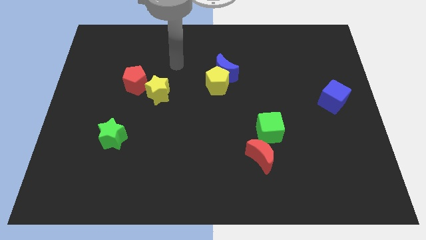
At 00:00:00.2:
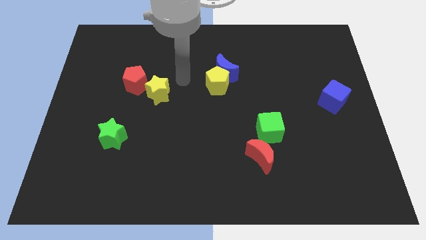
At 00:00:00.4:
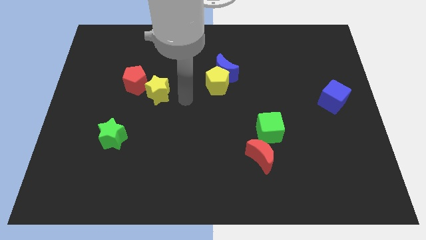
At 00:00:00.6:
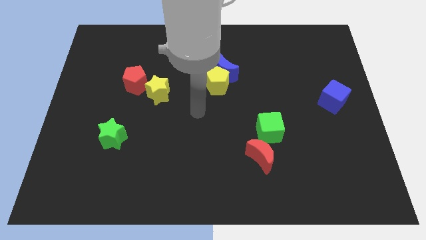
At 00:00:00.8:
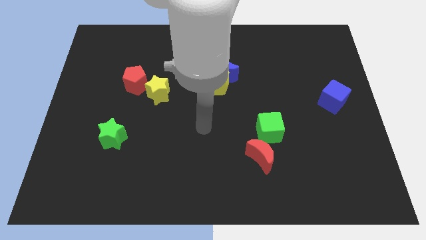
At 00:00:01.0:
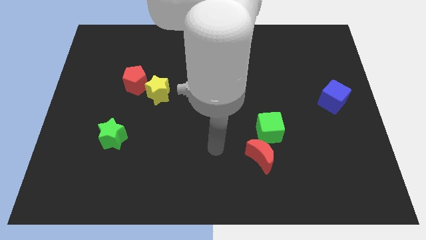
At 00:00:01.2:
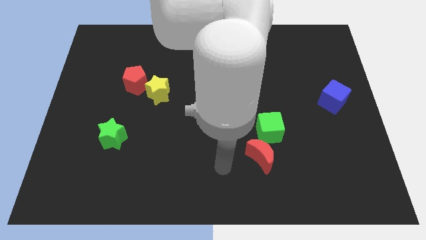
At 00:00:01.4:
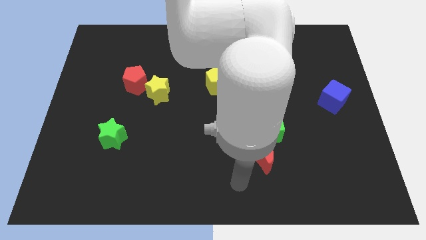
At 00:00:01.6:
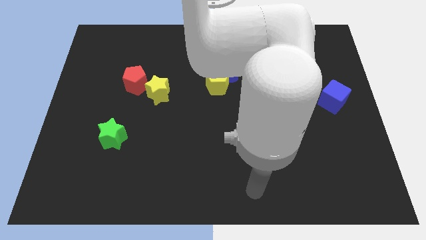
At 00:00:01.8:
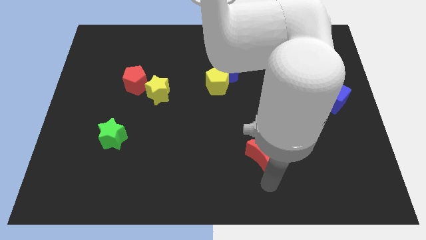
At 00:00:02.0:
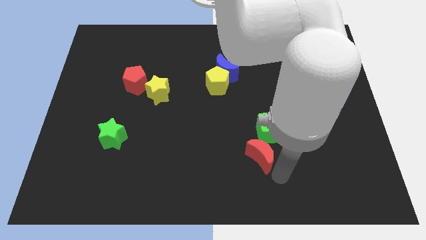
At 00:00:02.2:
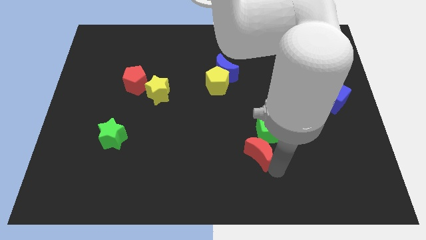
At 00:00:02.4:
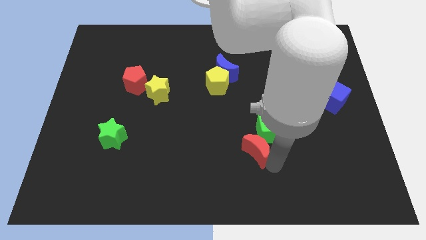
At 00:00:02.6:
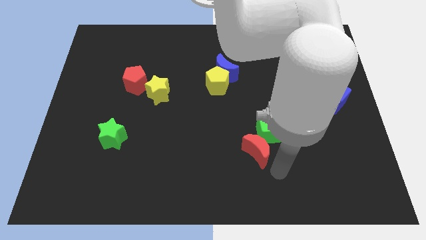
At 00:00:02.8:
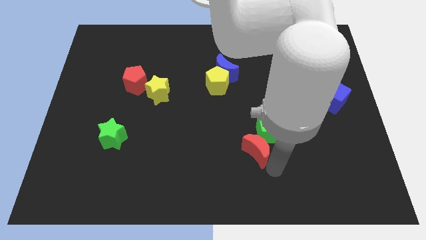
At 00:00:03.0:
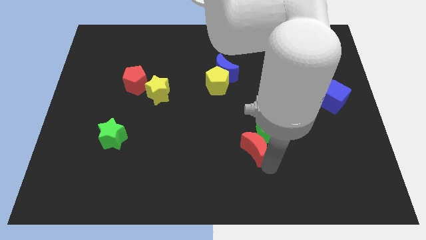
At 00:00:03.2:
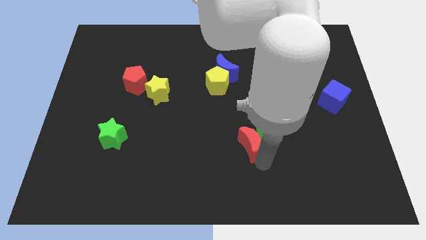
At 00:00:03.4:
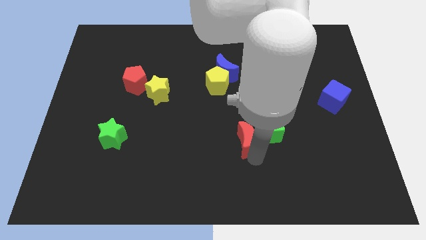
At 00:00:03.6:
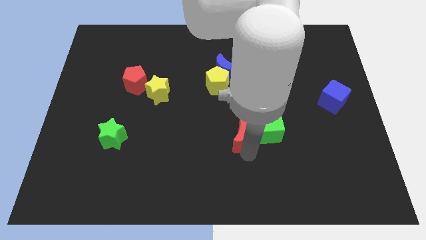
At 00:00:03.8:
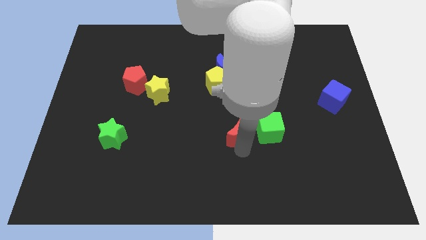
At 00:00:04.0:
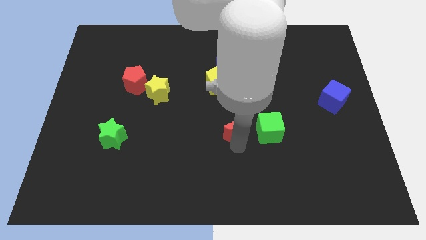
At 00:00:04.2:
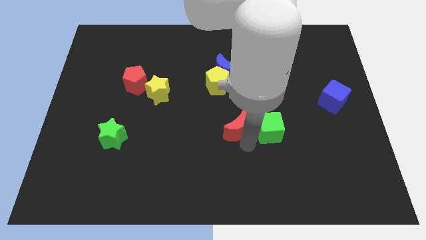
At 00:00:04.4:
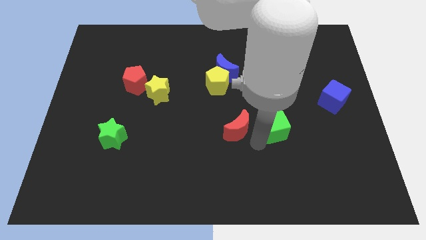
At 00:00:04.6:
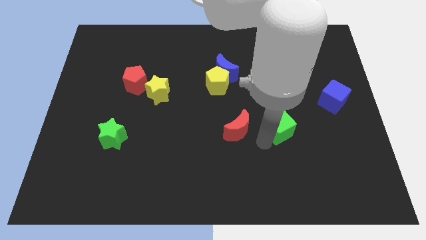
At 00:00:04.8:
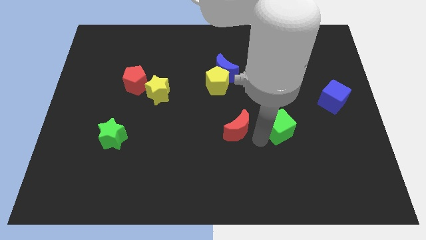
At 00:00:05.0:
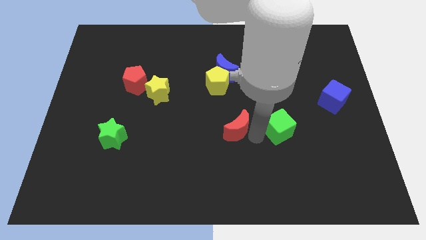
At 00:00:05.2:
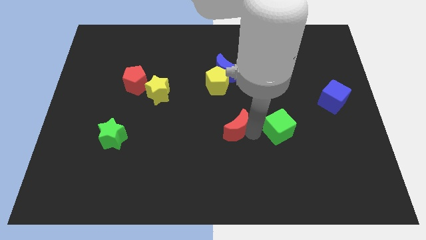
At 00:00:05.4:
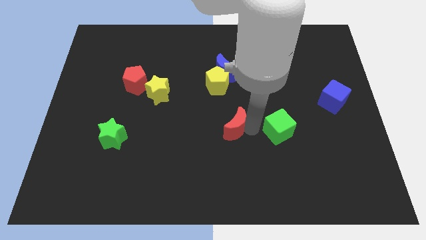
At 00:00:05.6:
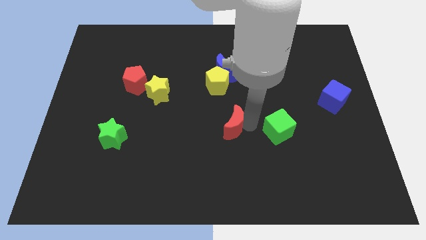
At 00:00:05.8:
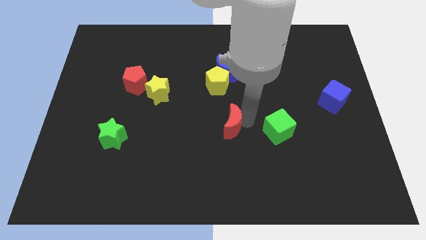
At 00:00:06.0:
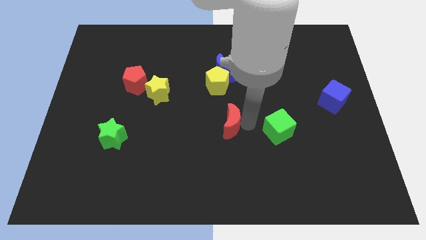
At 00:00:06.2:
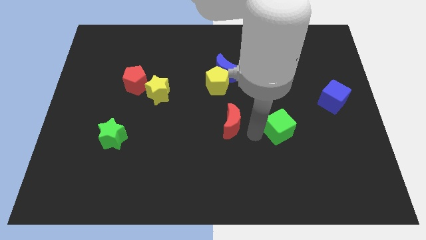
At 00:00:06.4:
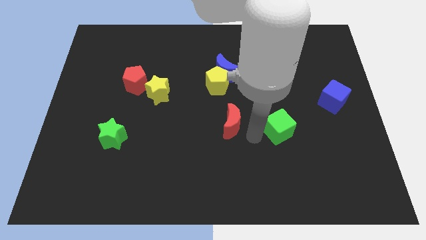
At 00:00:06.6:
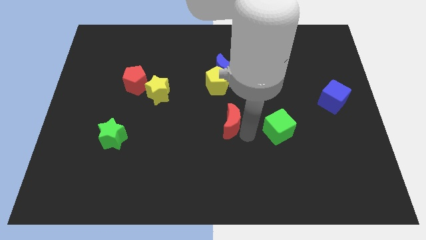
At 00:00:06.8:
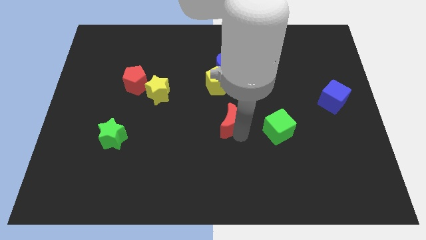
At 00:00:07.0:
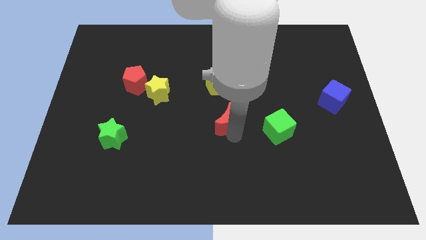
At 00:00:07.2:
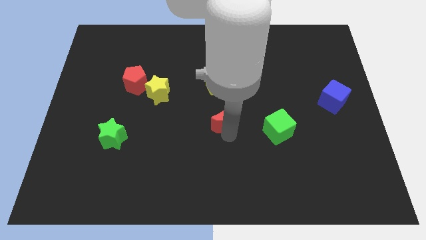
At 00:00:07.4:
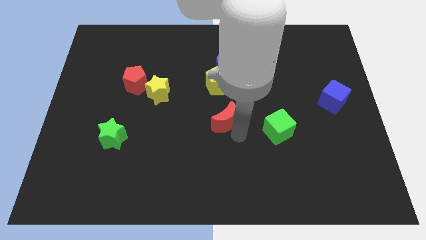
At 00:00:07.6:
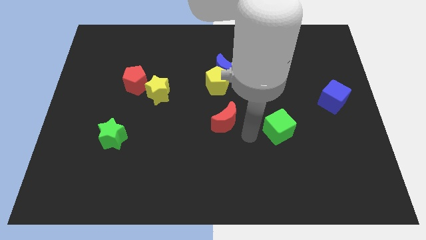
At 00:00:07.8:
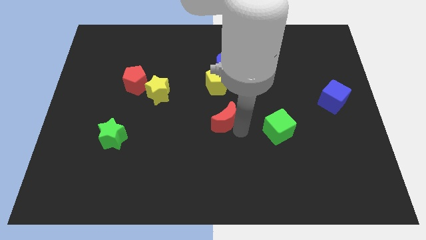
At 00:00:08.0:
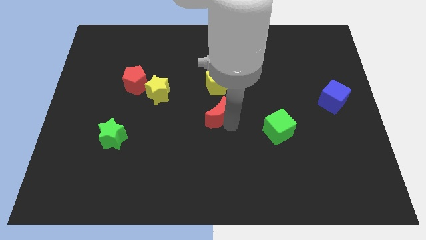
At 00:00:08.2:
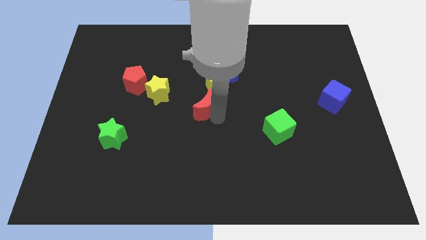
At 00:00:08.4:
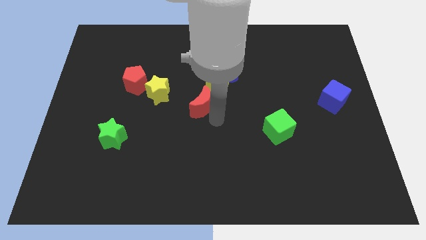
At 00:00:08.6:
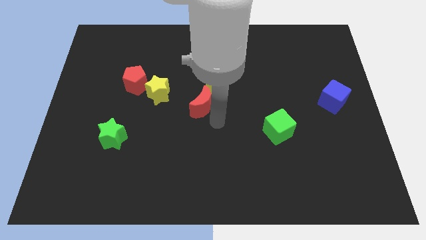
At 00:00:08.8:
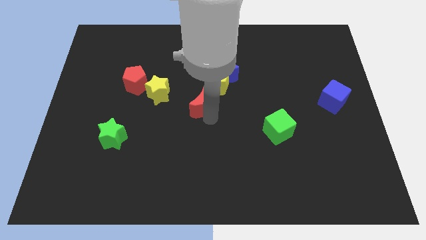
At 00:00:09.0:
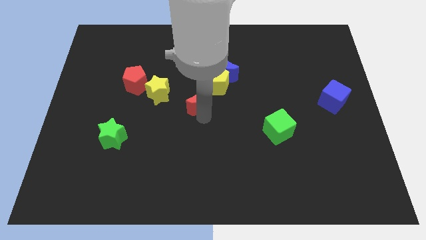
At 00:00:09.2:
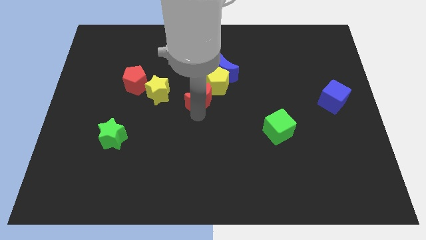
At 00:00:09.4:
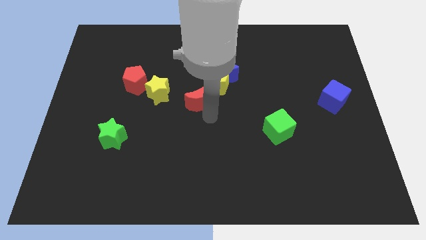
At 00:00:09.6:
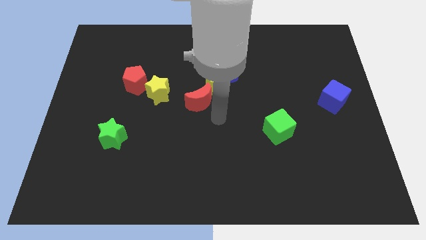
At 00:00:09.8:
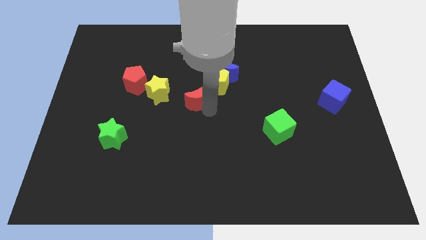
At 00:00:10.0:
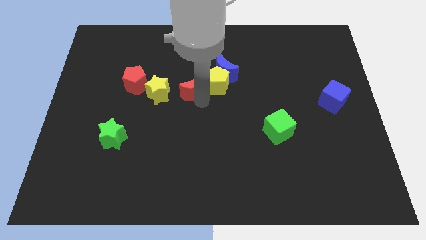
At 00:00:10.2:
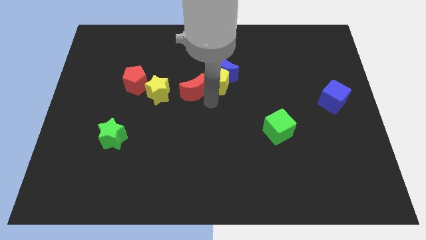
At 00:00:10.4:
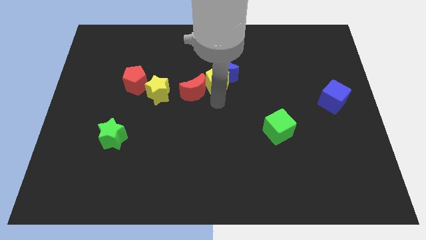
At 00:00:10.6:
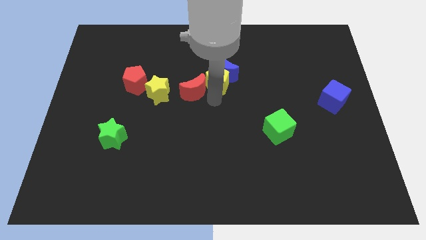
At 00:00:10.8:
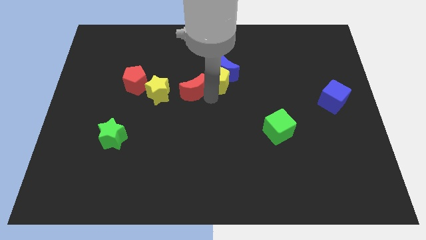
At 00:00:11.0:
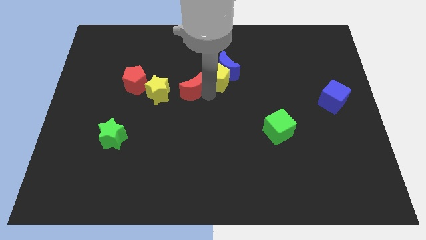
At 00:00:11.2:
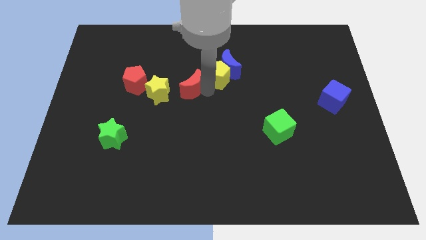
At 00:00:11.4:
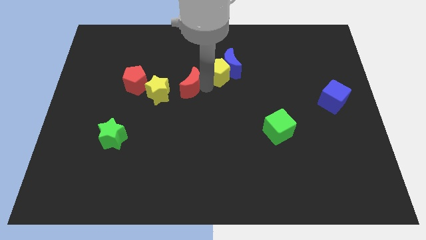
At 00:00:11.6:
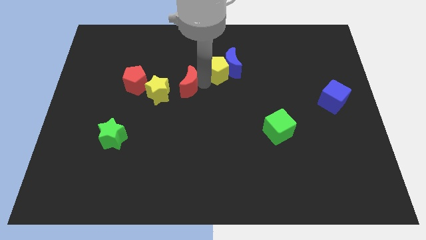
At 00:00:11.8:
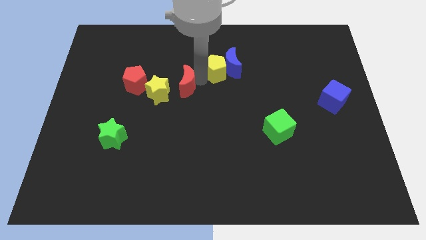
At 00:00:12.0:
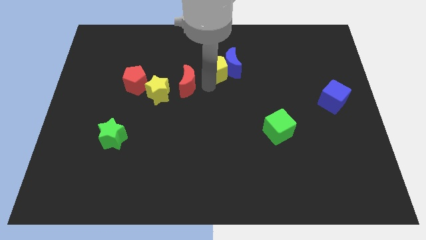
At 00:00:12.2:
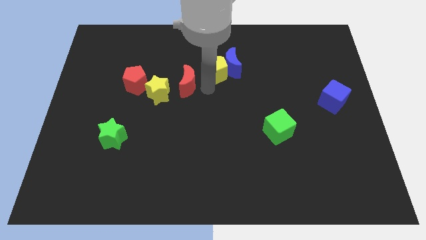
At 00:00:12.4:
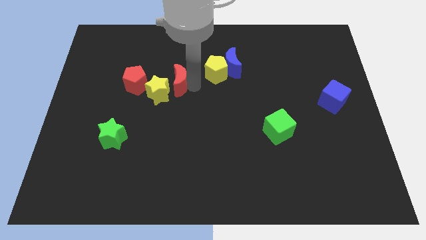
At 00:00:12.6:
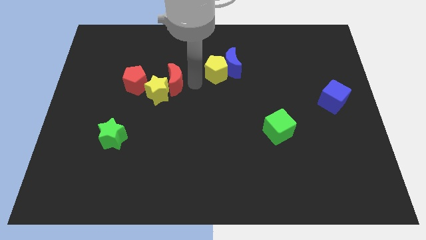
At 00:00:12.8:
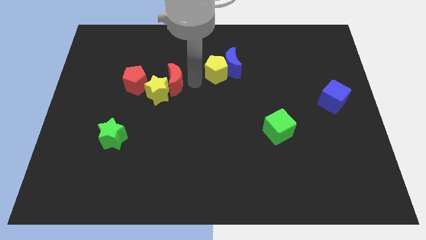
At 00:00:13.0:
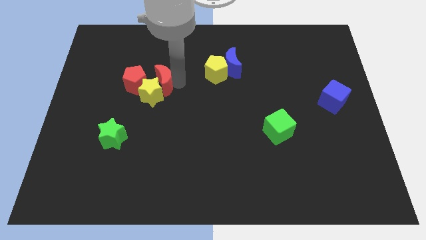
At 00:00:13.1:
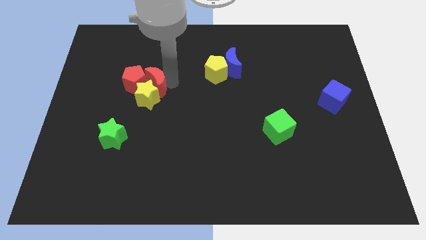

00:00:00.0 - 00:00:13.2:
put the red moon close to the red pentagon
